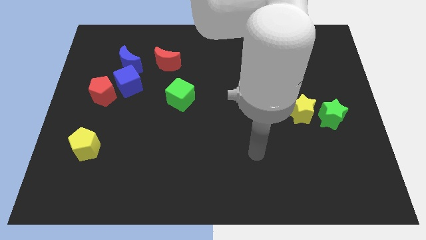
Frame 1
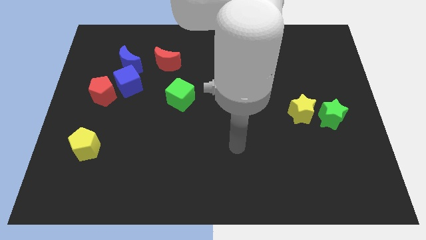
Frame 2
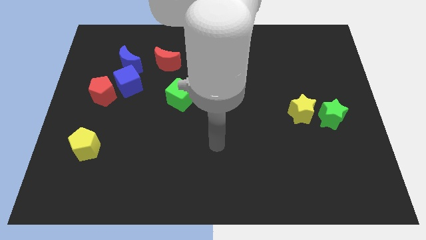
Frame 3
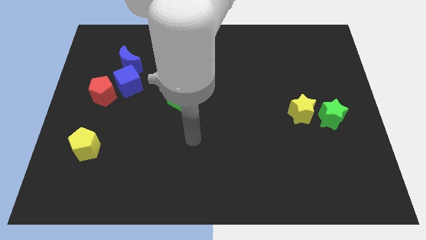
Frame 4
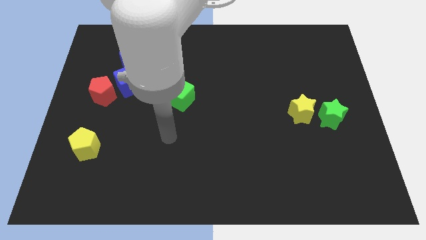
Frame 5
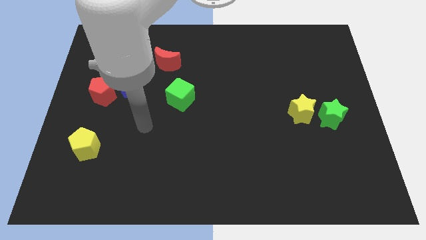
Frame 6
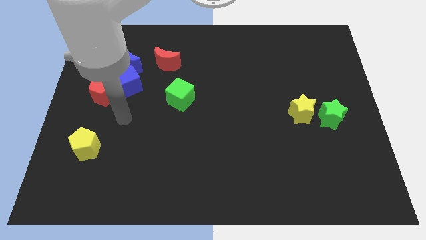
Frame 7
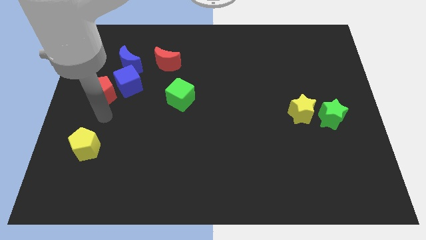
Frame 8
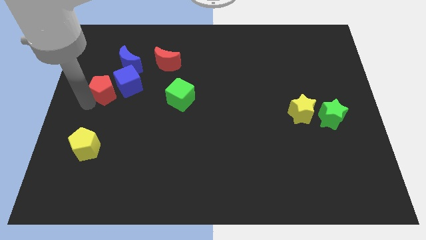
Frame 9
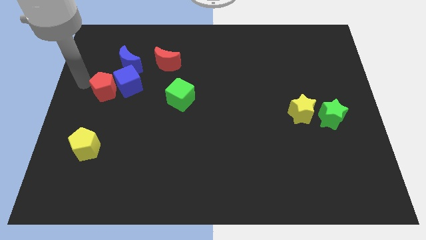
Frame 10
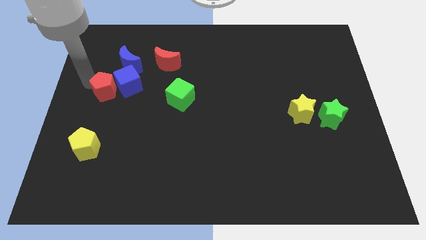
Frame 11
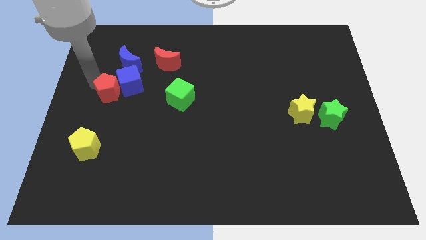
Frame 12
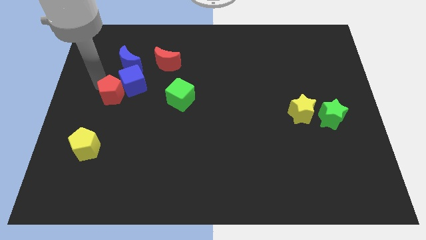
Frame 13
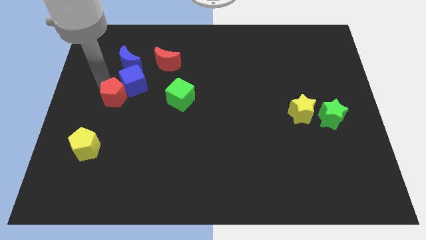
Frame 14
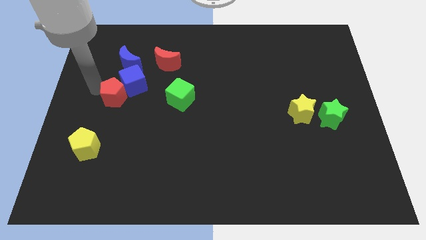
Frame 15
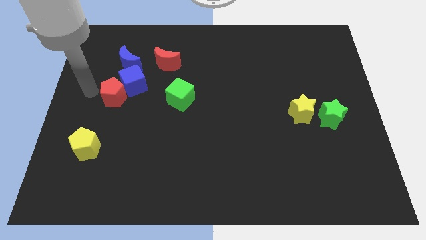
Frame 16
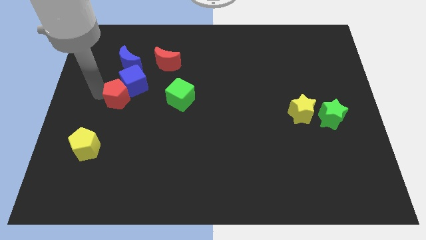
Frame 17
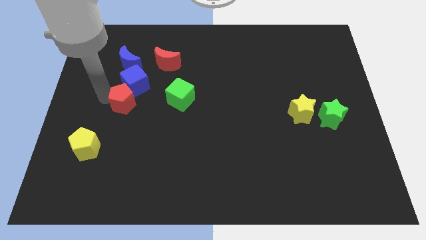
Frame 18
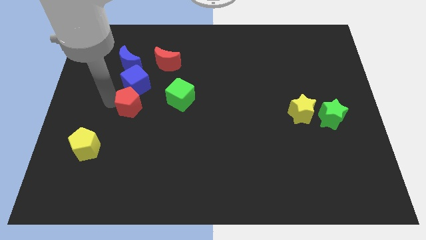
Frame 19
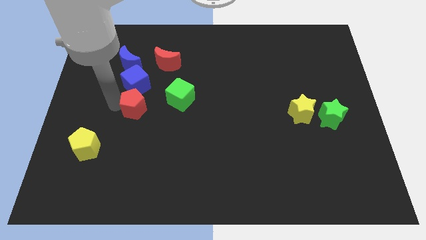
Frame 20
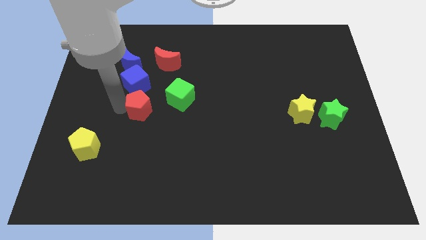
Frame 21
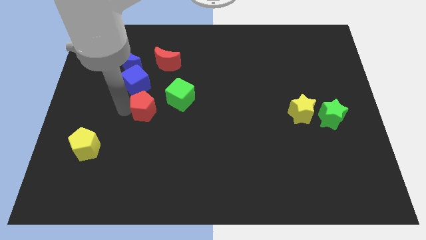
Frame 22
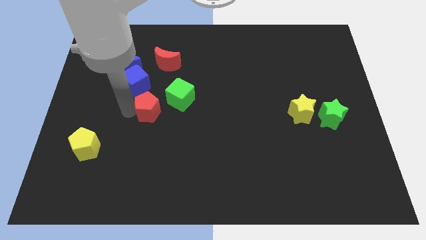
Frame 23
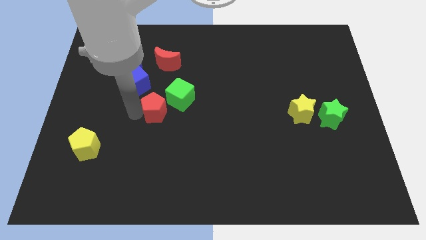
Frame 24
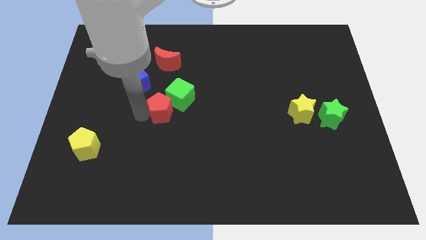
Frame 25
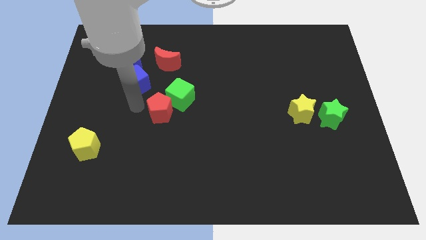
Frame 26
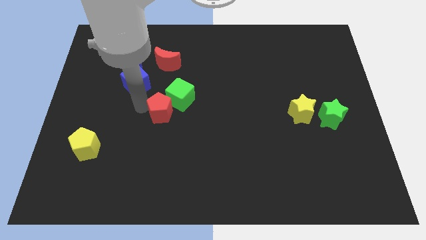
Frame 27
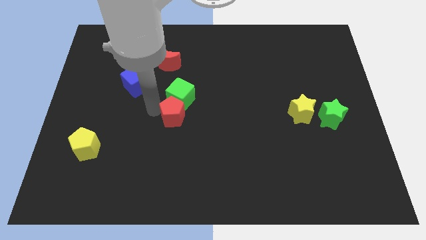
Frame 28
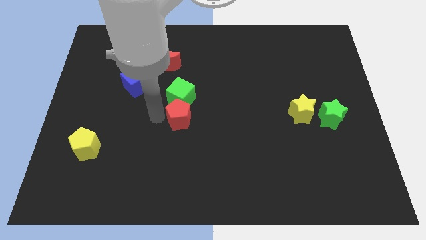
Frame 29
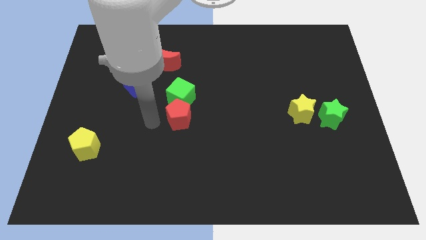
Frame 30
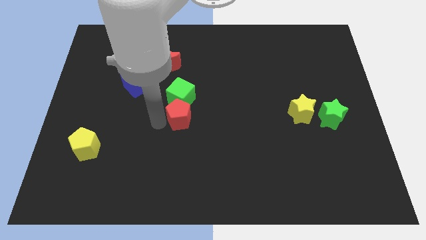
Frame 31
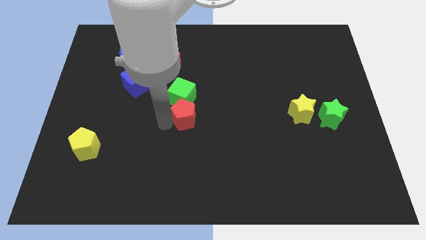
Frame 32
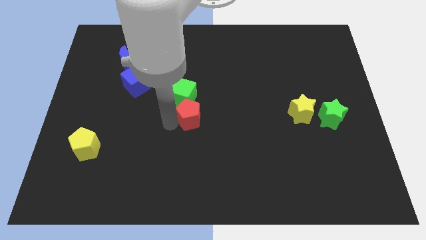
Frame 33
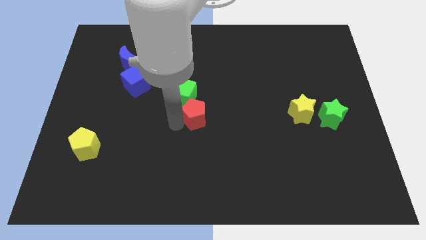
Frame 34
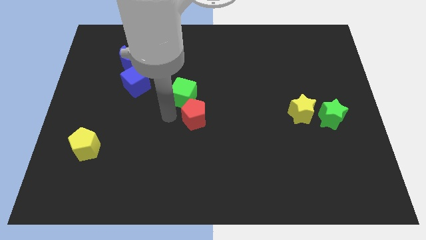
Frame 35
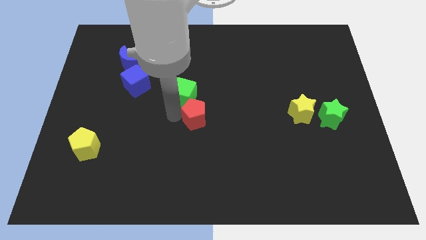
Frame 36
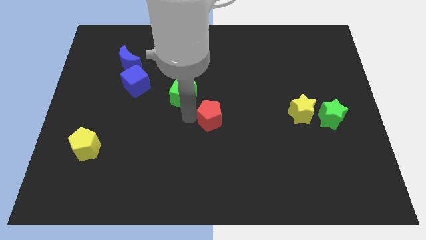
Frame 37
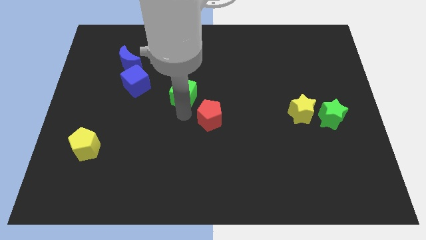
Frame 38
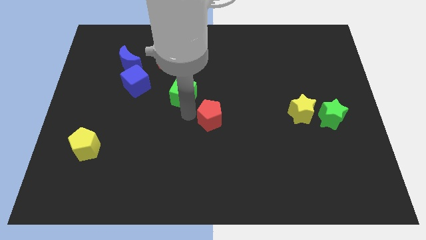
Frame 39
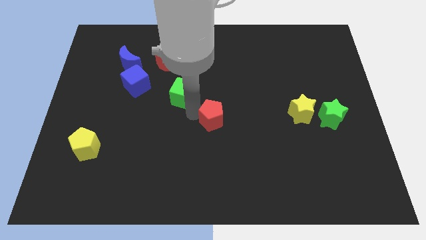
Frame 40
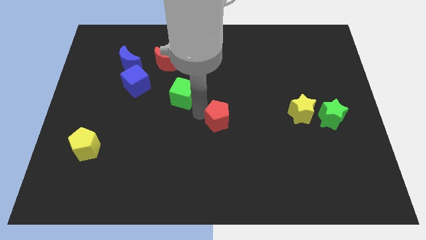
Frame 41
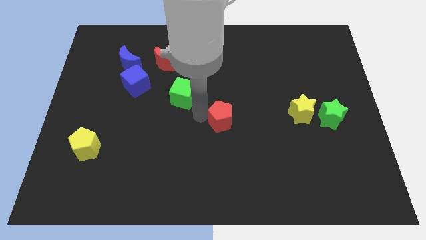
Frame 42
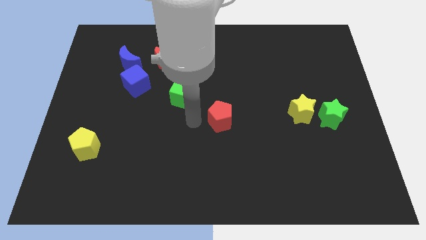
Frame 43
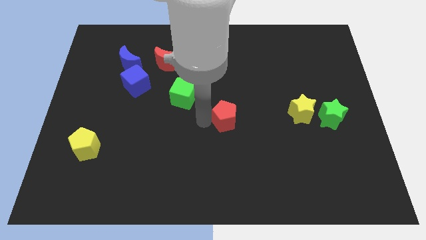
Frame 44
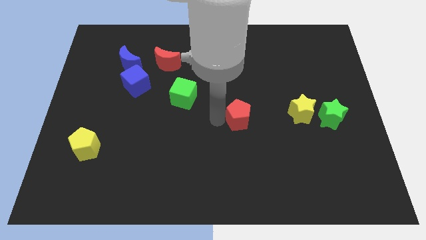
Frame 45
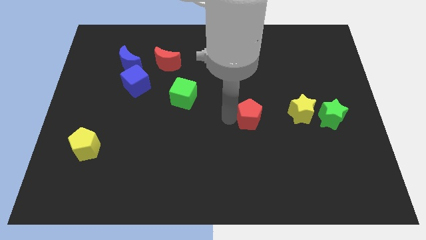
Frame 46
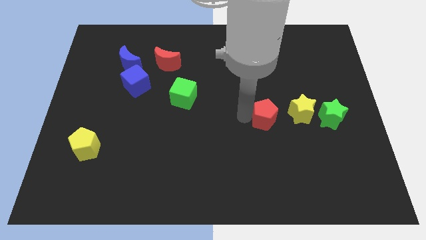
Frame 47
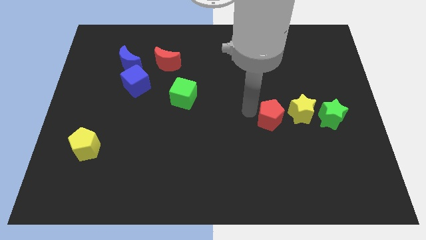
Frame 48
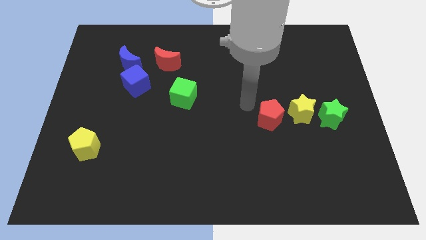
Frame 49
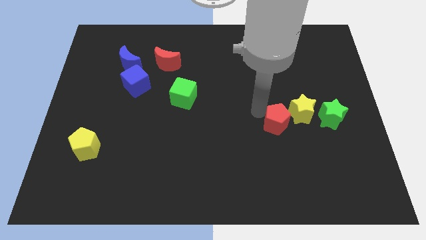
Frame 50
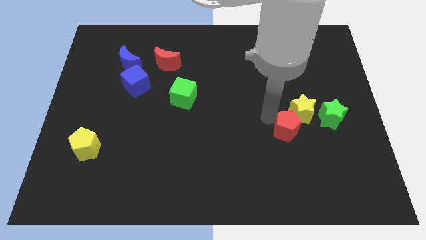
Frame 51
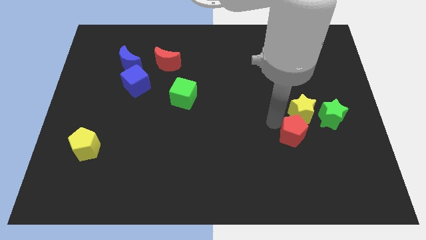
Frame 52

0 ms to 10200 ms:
push the red pentagon to the bottom left of the green star

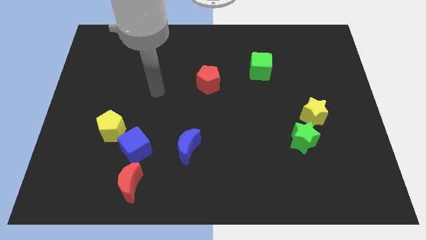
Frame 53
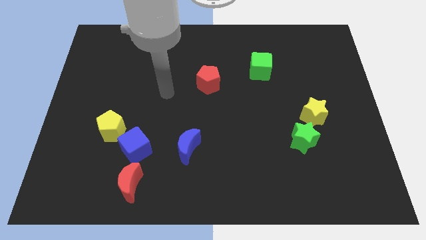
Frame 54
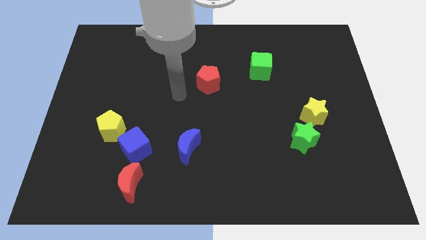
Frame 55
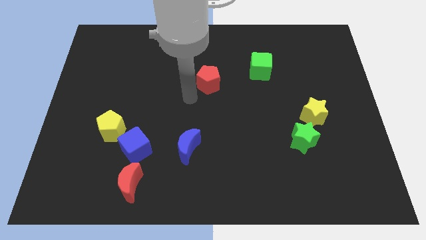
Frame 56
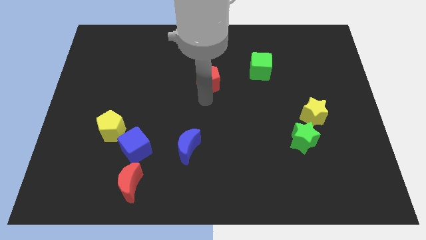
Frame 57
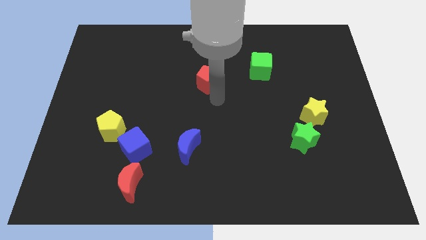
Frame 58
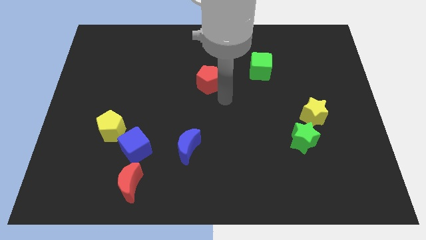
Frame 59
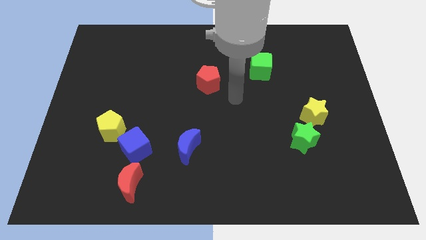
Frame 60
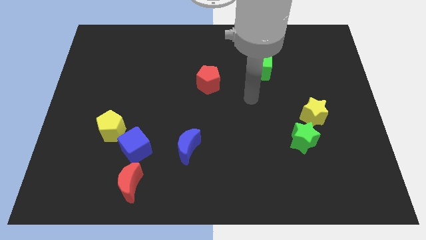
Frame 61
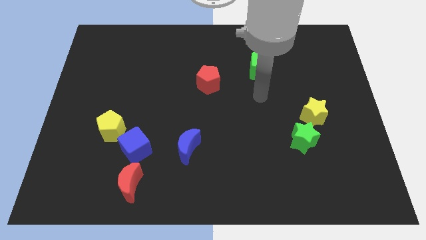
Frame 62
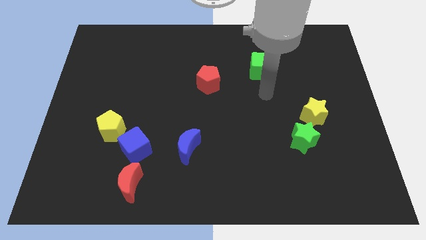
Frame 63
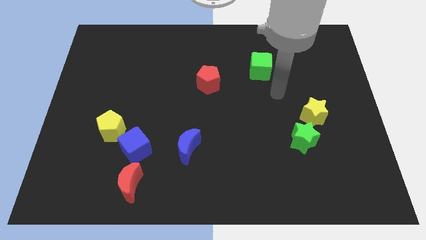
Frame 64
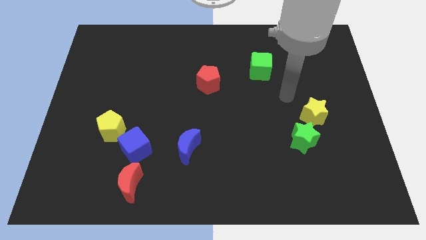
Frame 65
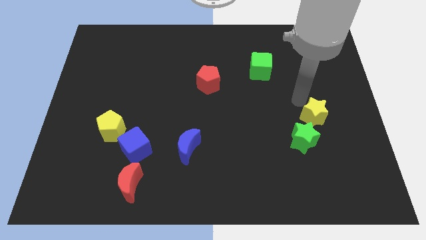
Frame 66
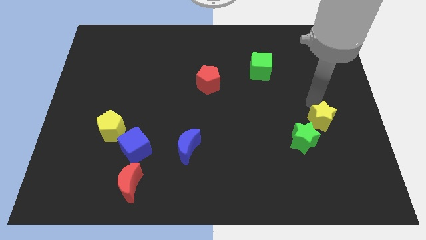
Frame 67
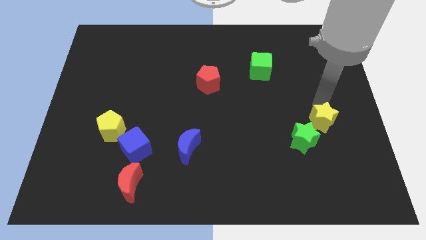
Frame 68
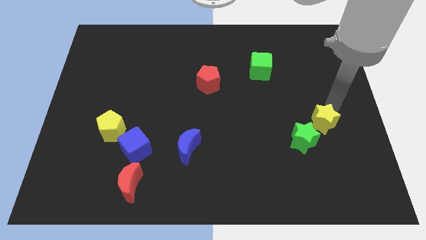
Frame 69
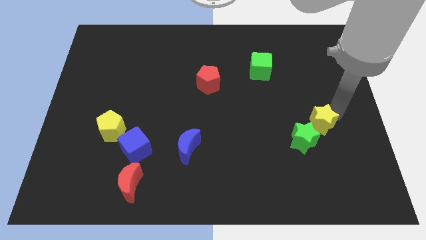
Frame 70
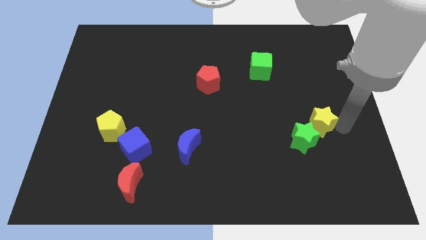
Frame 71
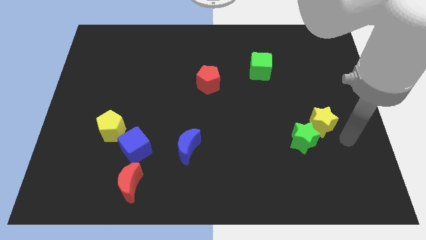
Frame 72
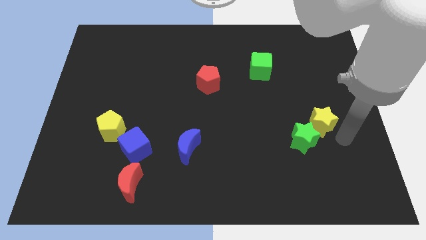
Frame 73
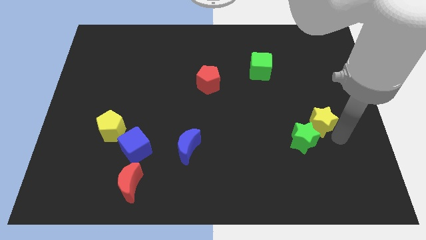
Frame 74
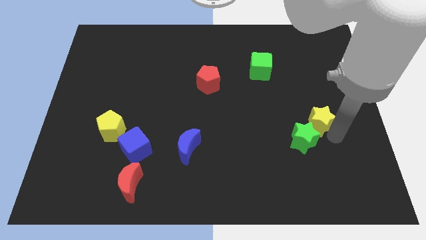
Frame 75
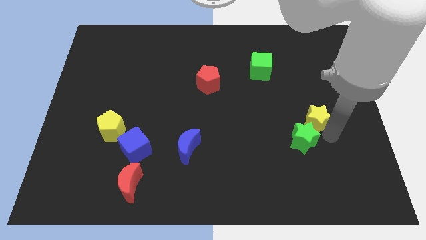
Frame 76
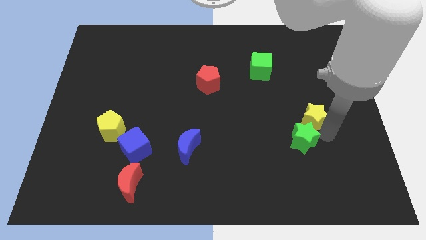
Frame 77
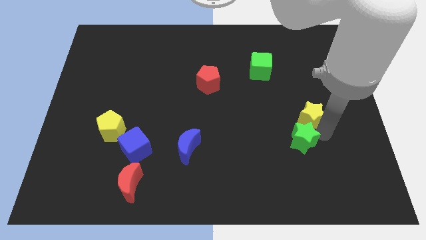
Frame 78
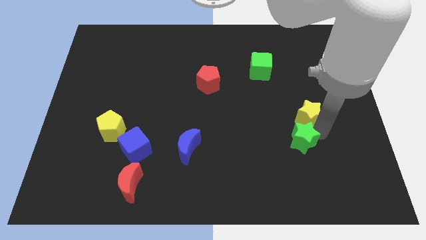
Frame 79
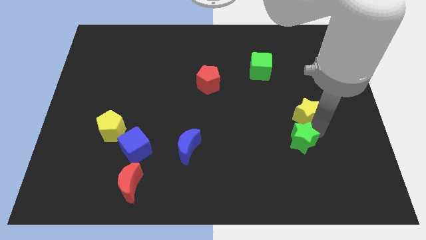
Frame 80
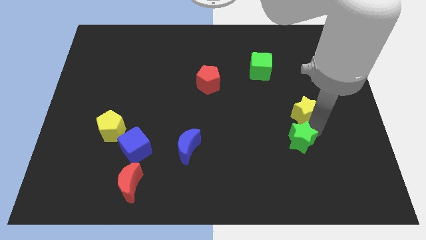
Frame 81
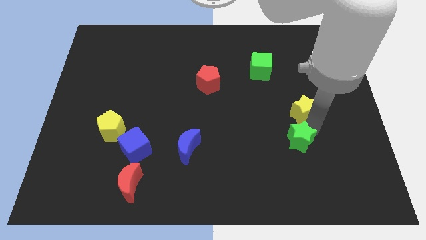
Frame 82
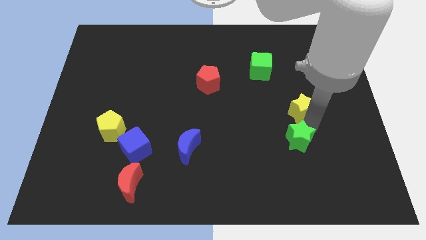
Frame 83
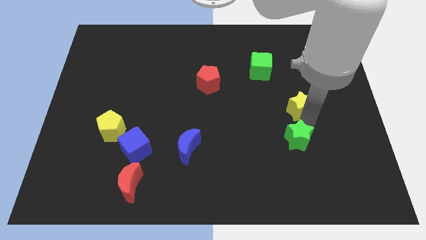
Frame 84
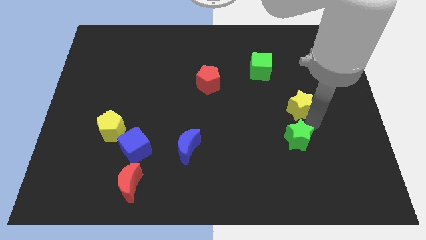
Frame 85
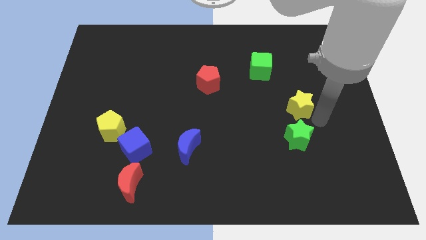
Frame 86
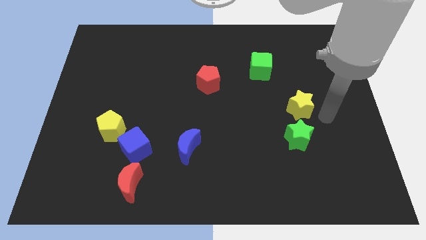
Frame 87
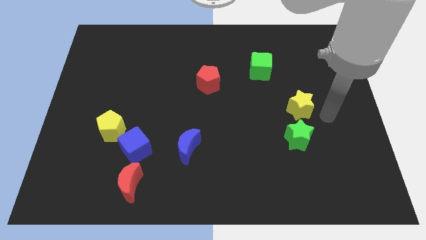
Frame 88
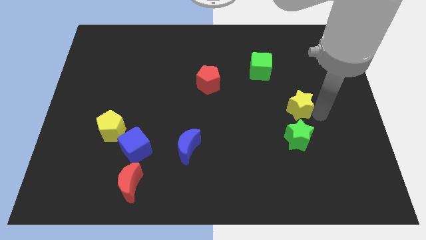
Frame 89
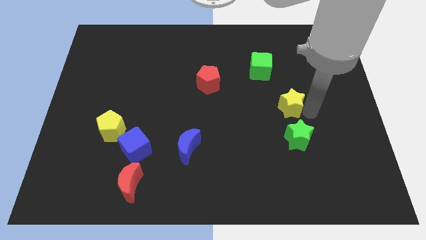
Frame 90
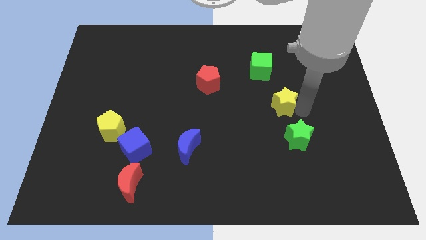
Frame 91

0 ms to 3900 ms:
put the yellow star below the green cube
